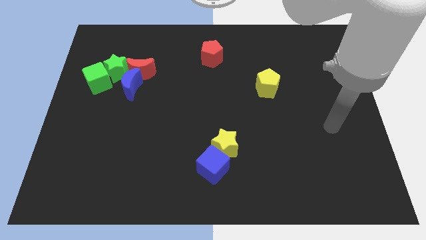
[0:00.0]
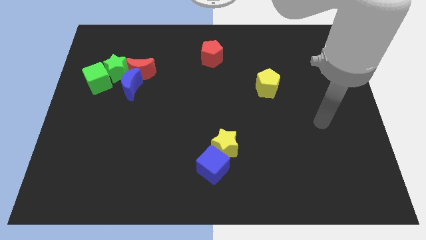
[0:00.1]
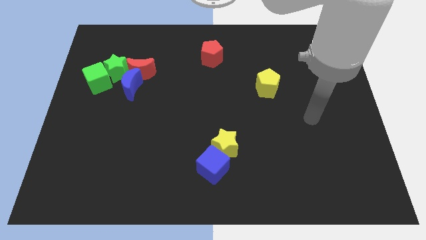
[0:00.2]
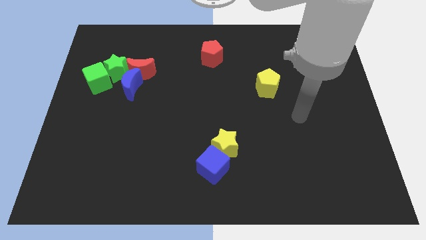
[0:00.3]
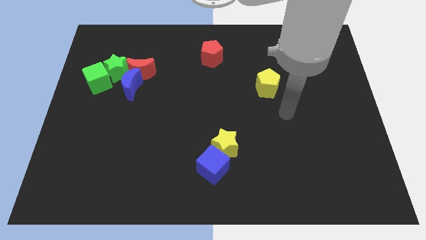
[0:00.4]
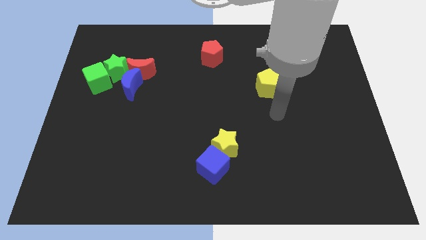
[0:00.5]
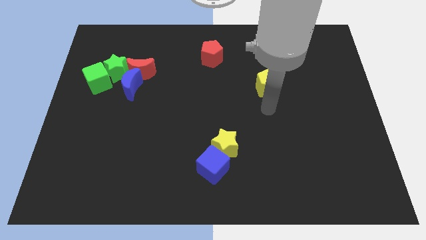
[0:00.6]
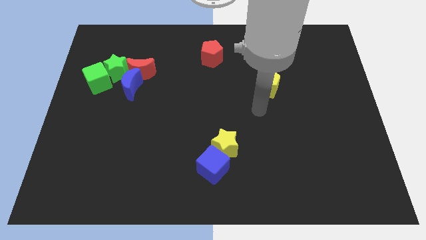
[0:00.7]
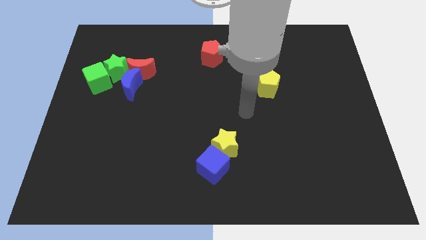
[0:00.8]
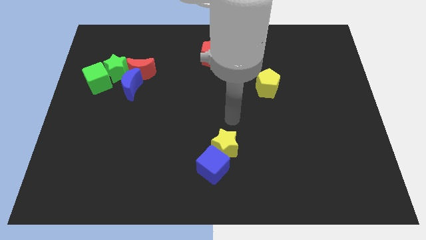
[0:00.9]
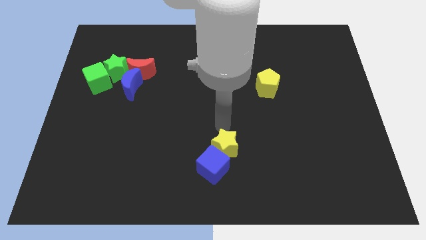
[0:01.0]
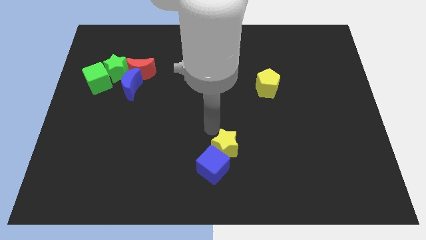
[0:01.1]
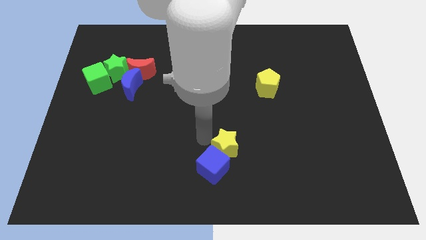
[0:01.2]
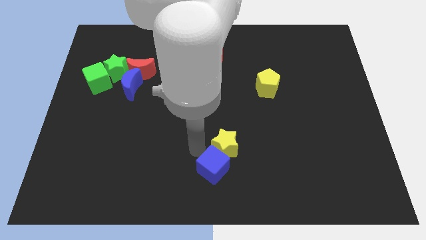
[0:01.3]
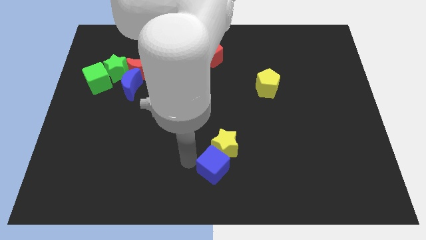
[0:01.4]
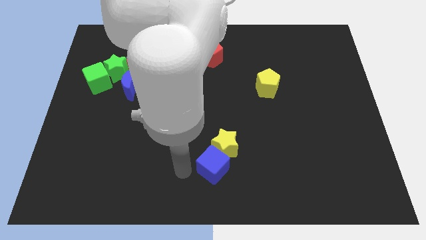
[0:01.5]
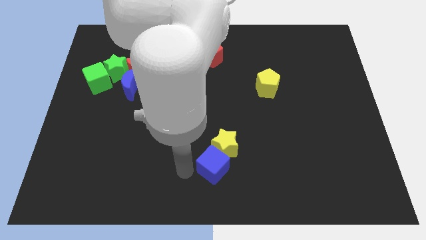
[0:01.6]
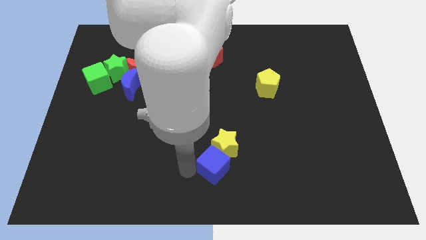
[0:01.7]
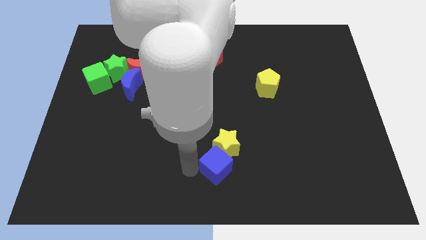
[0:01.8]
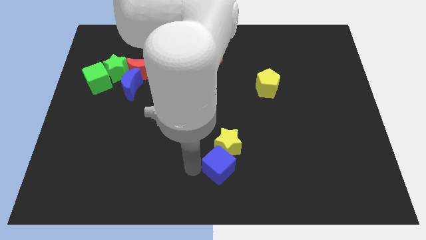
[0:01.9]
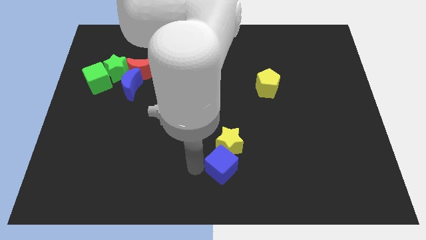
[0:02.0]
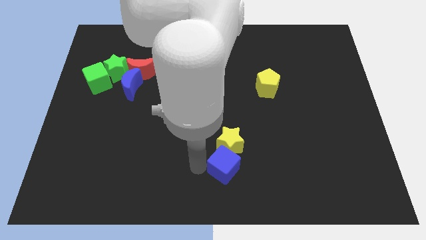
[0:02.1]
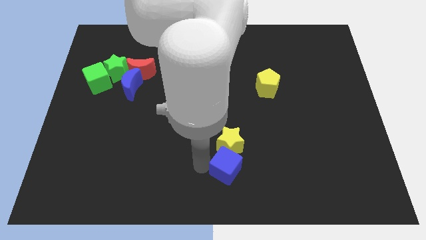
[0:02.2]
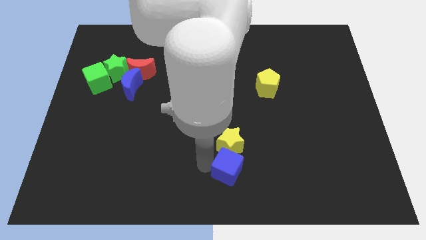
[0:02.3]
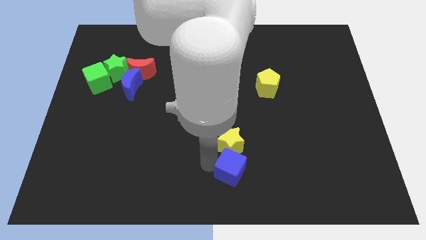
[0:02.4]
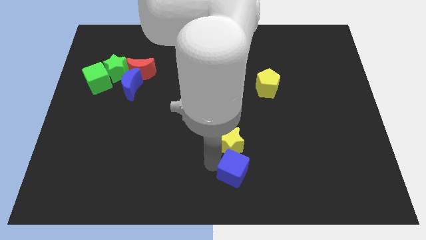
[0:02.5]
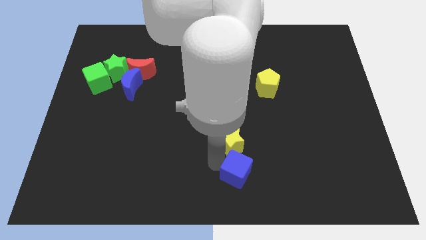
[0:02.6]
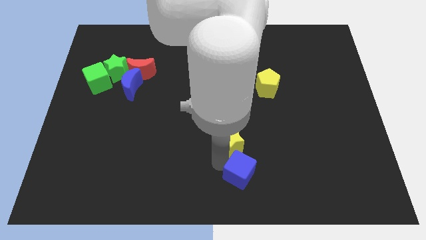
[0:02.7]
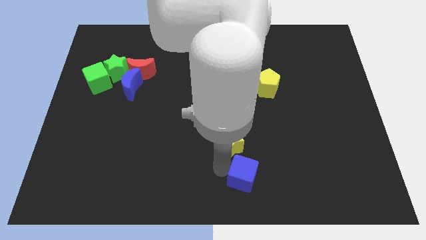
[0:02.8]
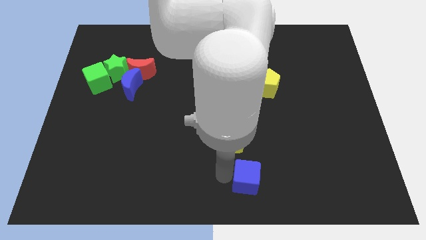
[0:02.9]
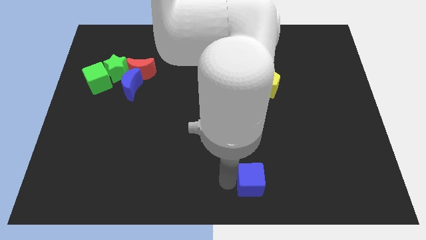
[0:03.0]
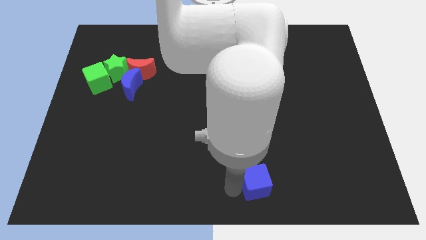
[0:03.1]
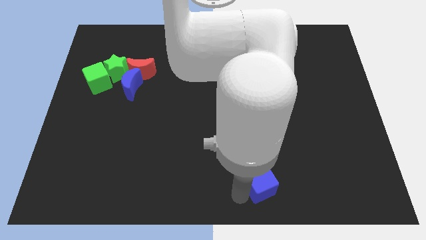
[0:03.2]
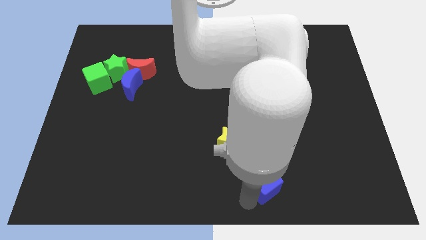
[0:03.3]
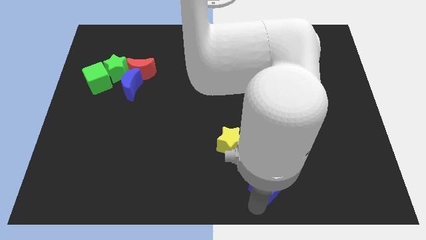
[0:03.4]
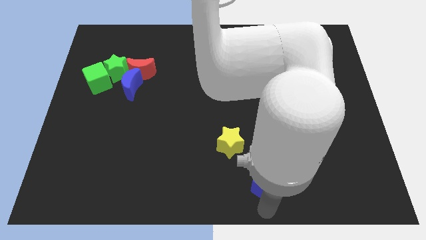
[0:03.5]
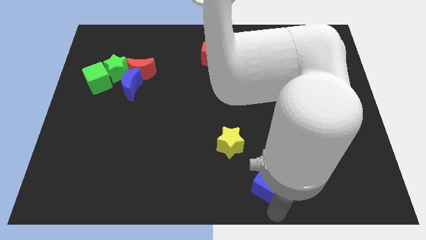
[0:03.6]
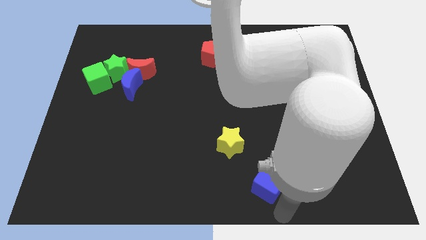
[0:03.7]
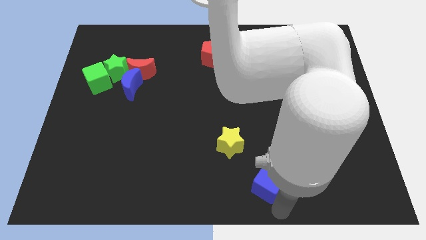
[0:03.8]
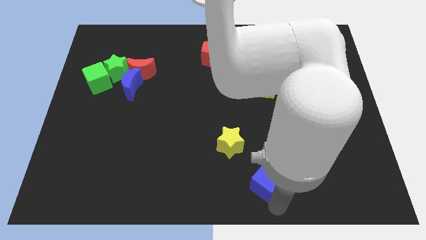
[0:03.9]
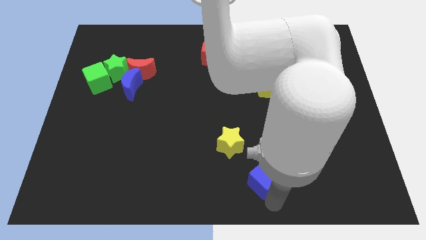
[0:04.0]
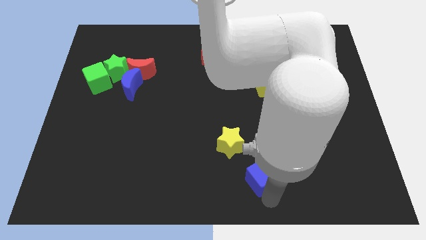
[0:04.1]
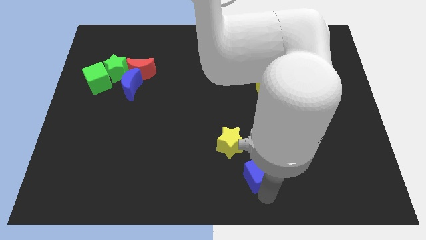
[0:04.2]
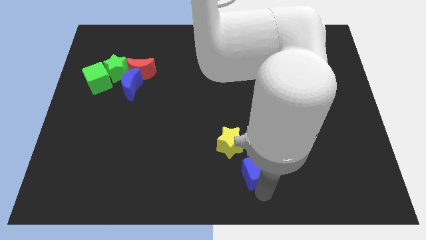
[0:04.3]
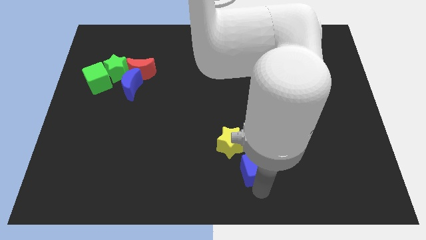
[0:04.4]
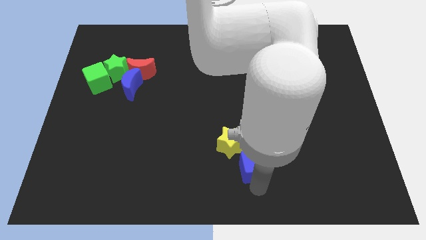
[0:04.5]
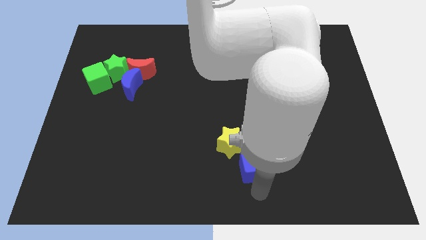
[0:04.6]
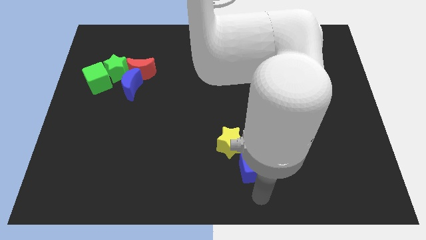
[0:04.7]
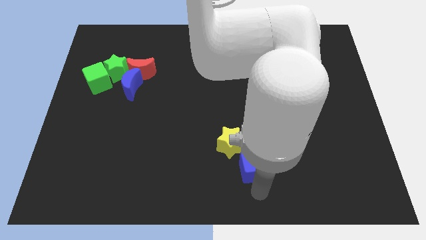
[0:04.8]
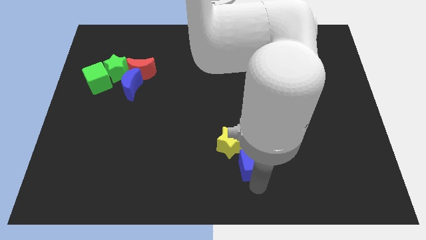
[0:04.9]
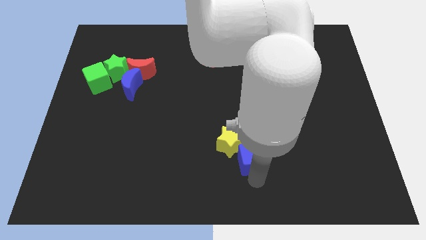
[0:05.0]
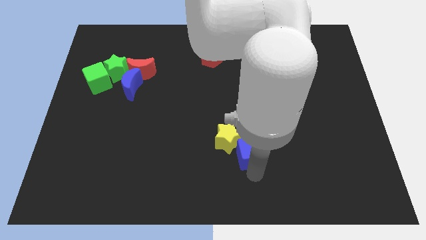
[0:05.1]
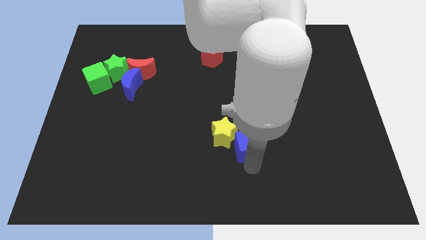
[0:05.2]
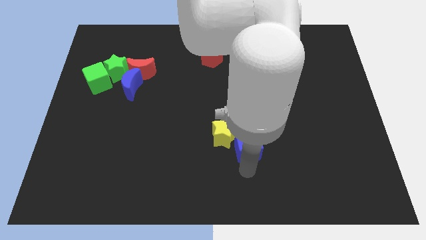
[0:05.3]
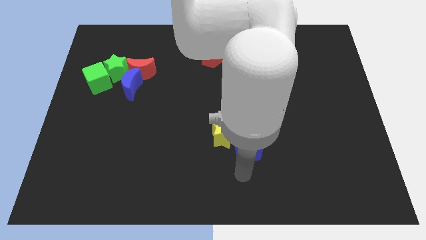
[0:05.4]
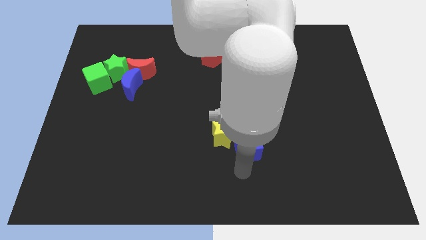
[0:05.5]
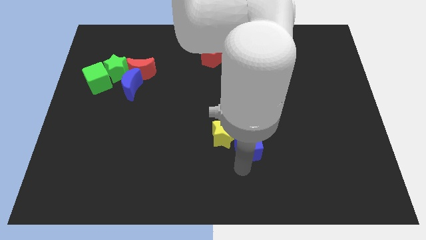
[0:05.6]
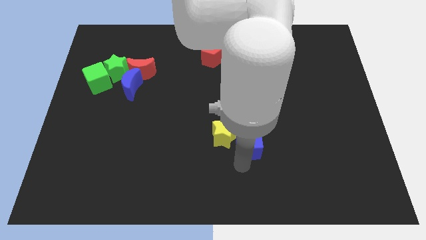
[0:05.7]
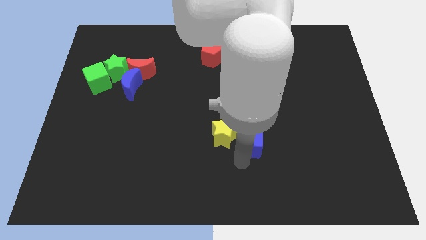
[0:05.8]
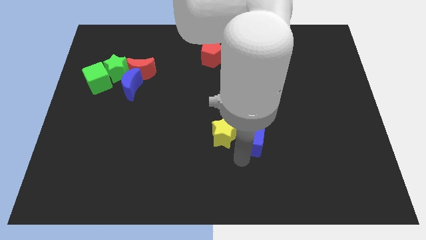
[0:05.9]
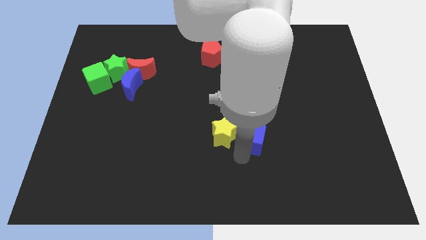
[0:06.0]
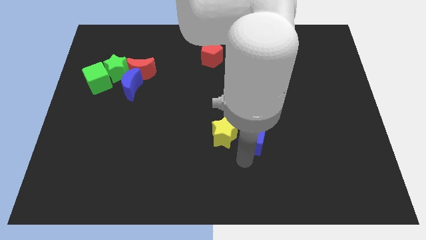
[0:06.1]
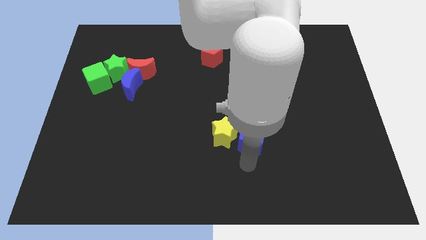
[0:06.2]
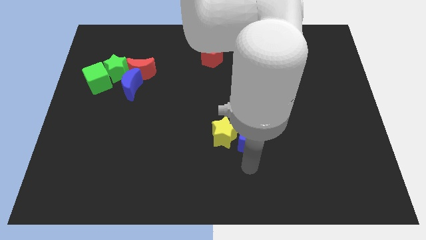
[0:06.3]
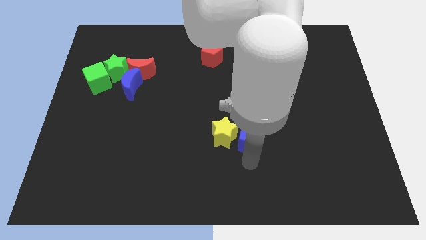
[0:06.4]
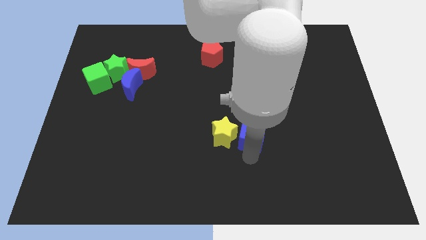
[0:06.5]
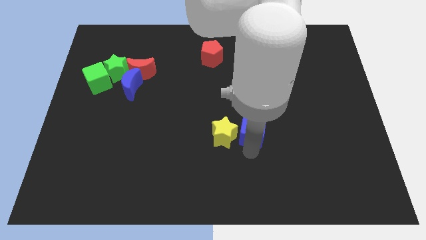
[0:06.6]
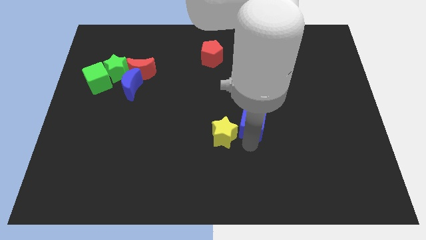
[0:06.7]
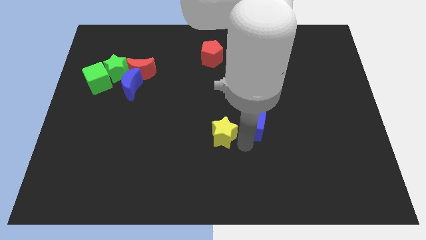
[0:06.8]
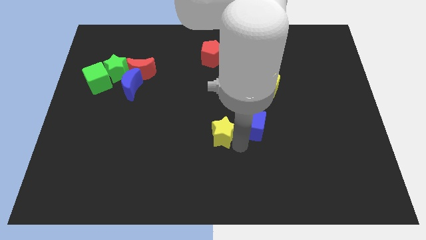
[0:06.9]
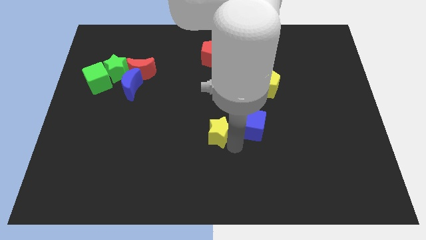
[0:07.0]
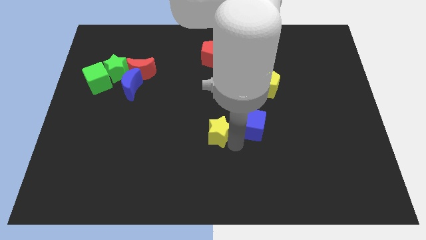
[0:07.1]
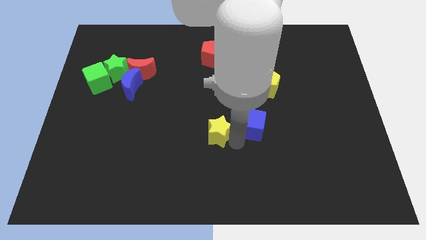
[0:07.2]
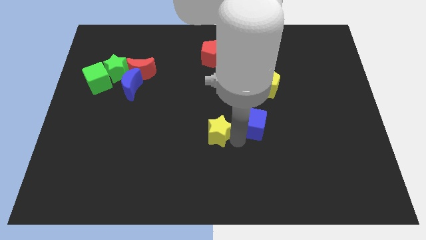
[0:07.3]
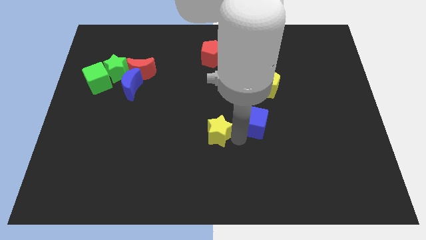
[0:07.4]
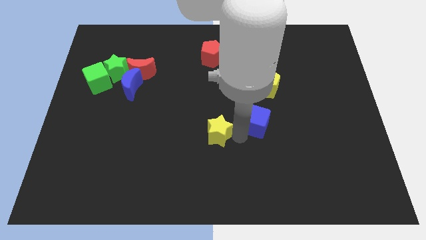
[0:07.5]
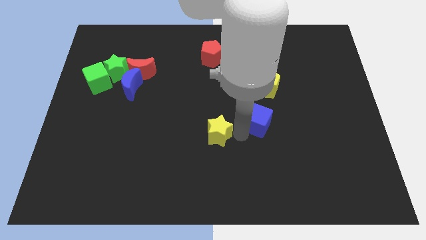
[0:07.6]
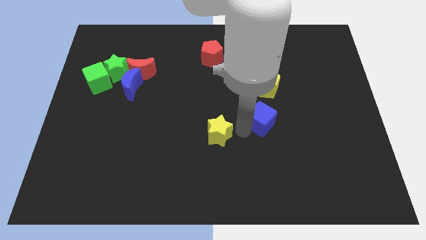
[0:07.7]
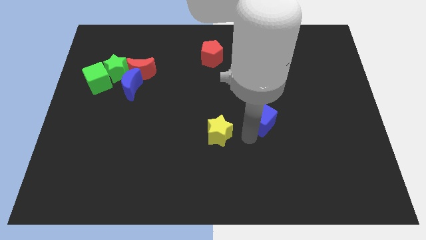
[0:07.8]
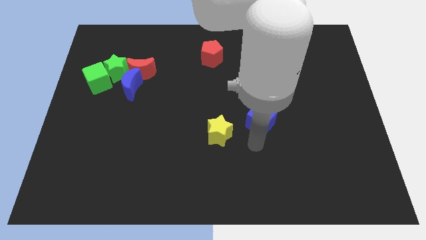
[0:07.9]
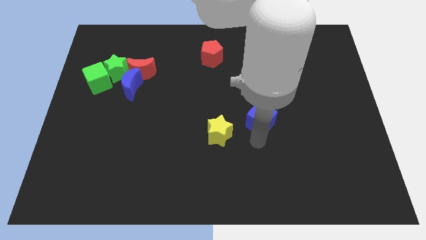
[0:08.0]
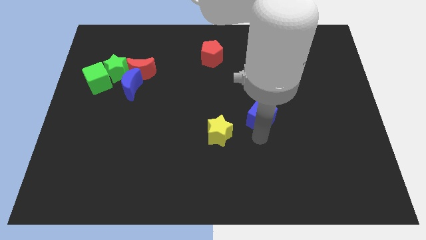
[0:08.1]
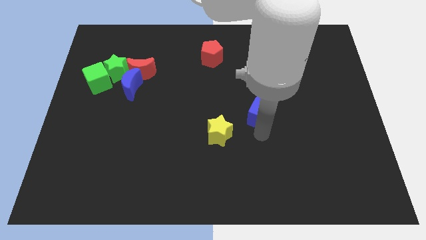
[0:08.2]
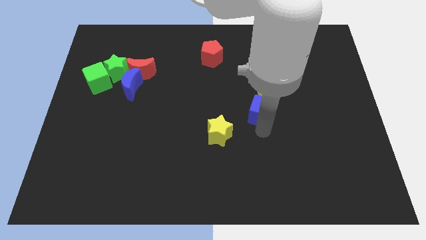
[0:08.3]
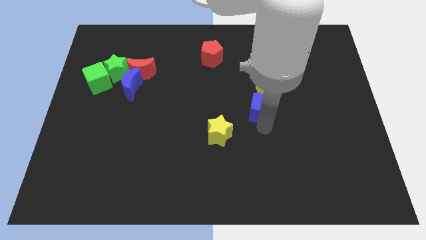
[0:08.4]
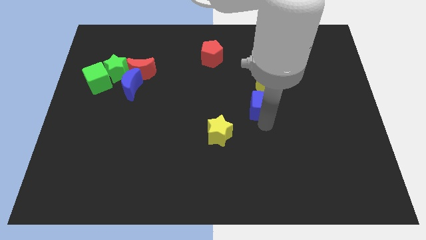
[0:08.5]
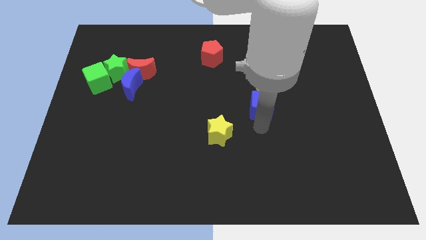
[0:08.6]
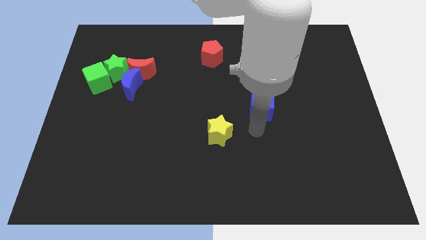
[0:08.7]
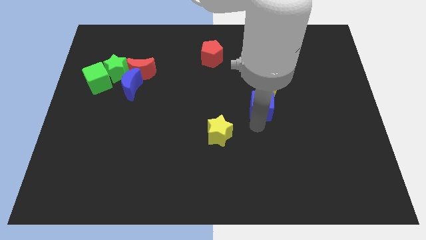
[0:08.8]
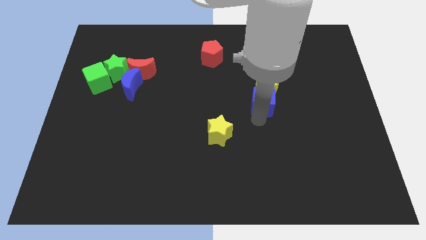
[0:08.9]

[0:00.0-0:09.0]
slide the blue cube next to the yellow pentagon
